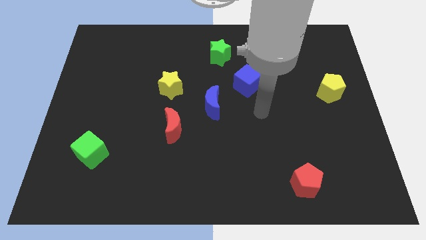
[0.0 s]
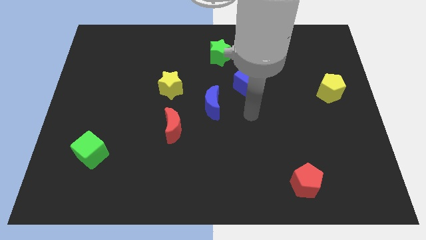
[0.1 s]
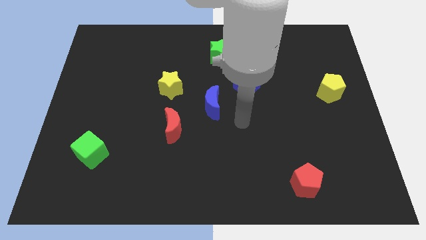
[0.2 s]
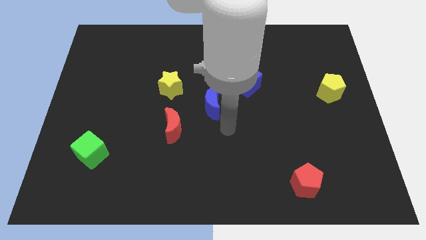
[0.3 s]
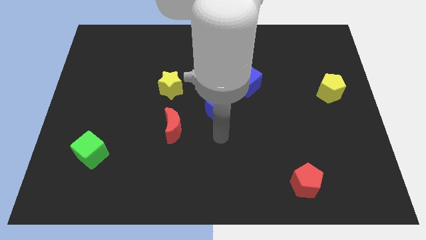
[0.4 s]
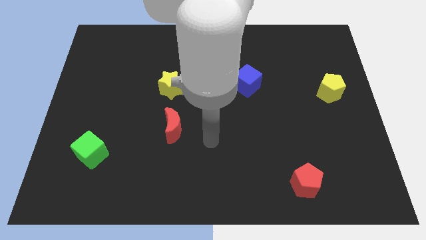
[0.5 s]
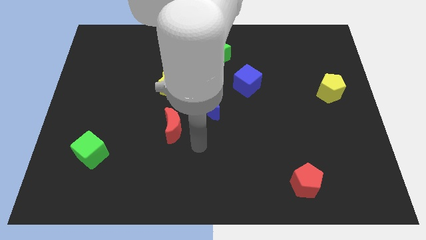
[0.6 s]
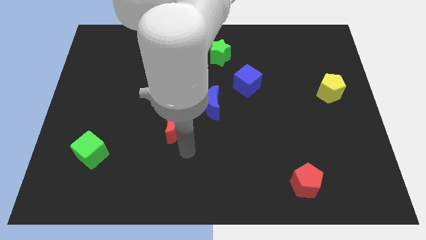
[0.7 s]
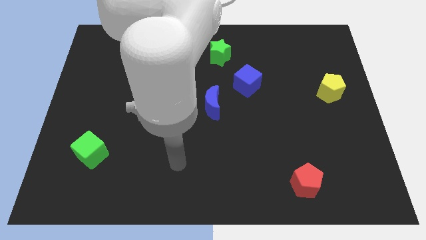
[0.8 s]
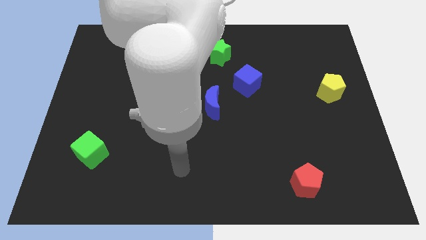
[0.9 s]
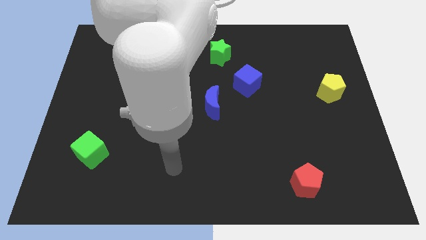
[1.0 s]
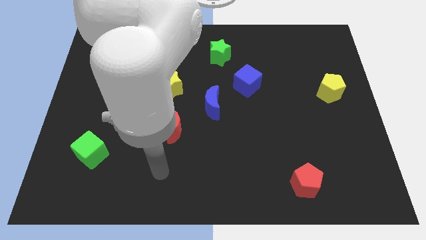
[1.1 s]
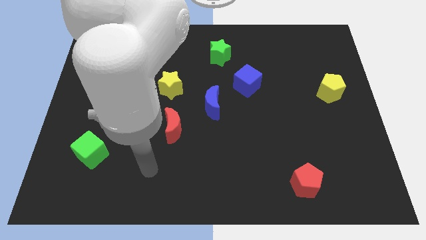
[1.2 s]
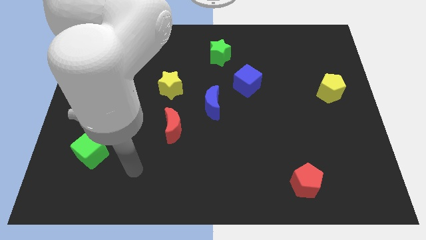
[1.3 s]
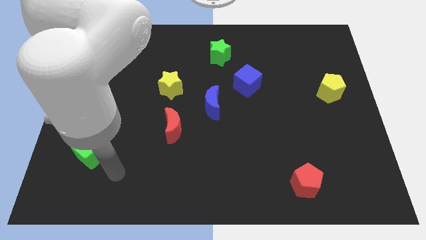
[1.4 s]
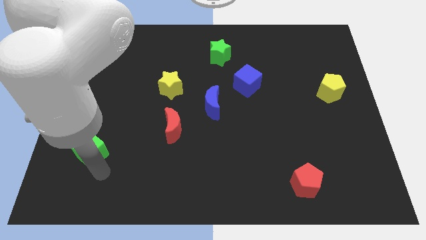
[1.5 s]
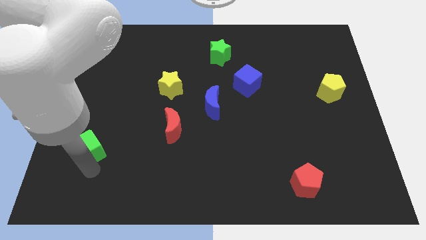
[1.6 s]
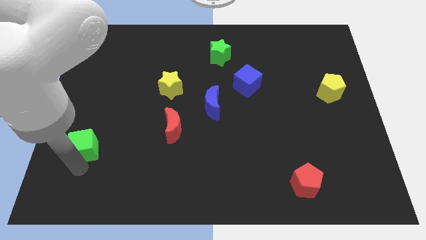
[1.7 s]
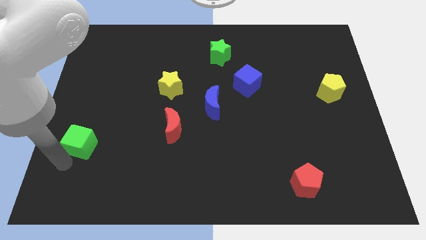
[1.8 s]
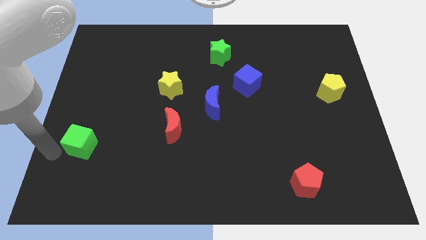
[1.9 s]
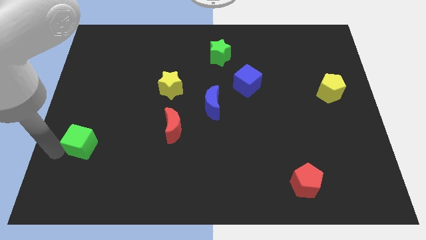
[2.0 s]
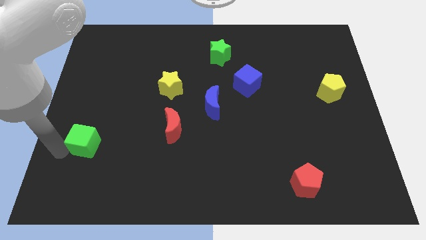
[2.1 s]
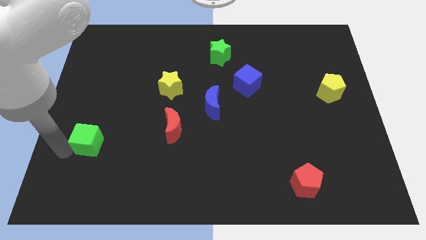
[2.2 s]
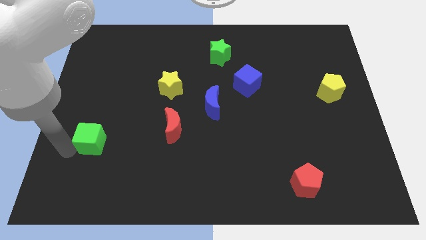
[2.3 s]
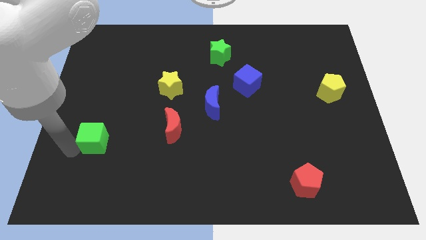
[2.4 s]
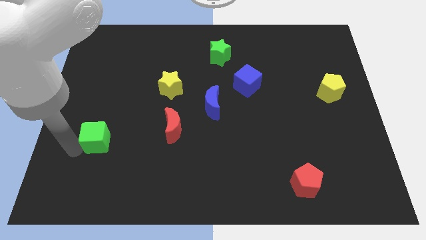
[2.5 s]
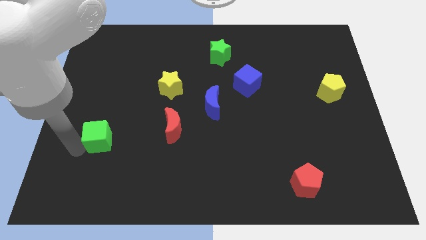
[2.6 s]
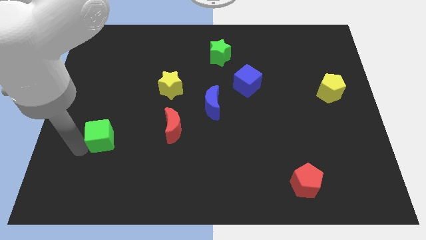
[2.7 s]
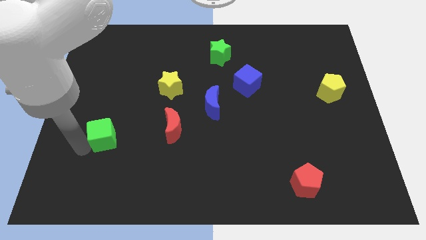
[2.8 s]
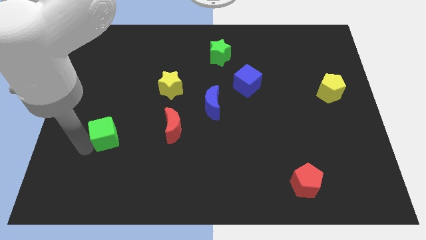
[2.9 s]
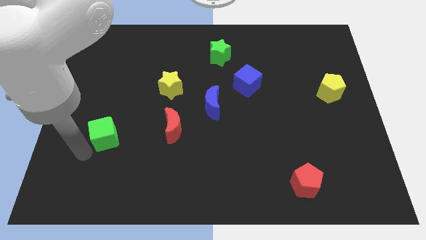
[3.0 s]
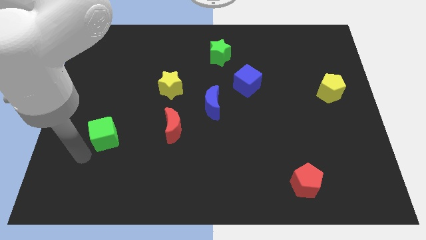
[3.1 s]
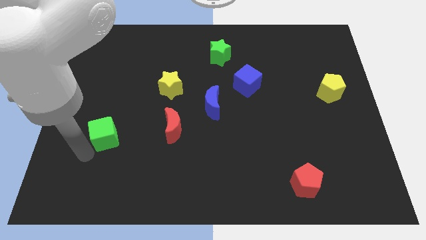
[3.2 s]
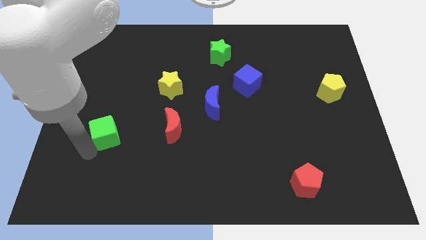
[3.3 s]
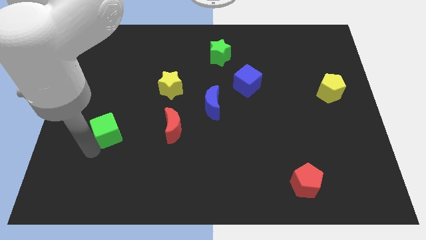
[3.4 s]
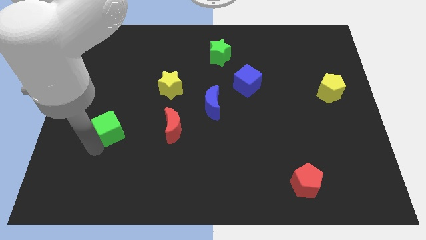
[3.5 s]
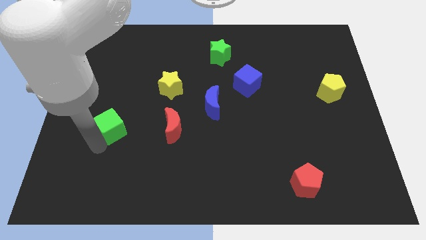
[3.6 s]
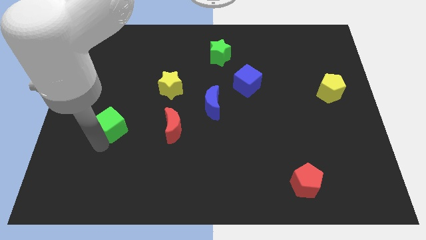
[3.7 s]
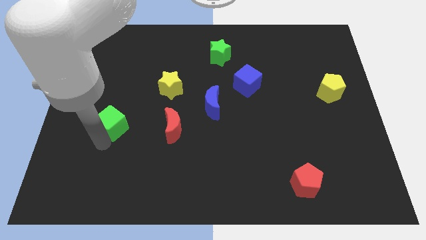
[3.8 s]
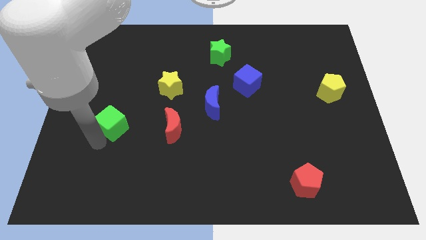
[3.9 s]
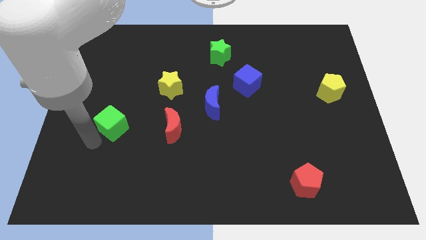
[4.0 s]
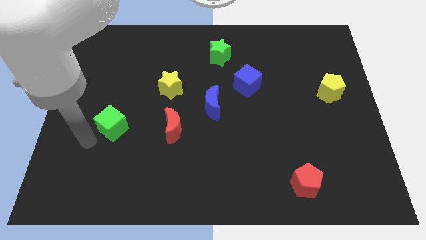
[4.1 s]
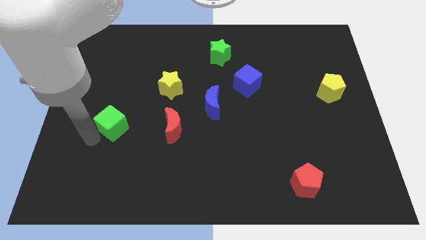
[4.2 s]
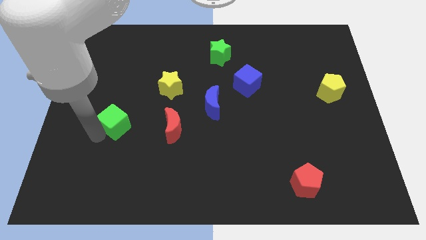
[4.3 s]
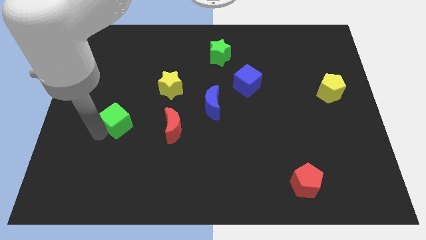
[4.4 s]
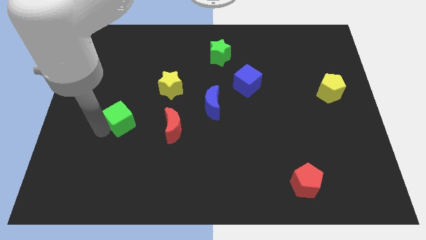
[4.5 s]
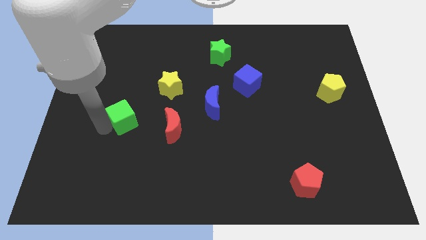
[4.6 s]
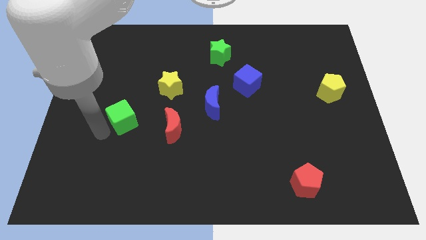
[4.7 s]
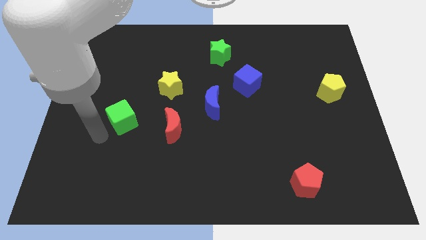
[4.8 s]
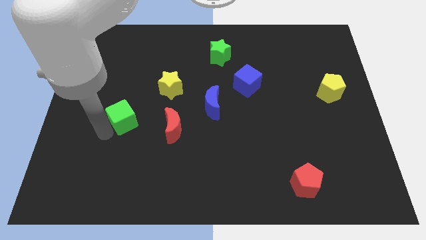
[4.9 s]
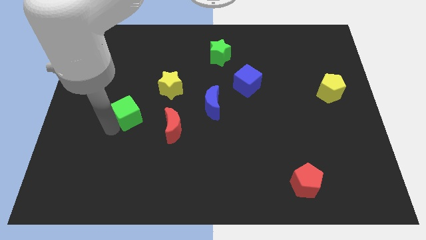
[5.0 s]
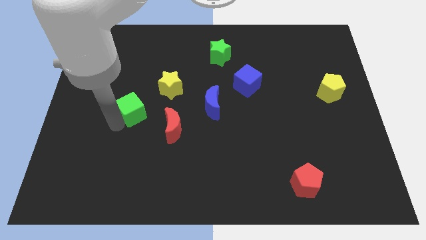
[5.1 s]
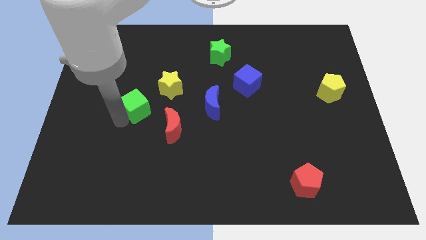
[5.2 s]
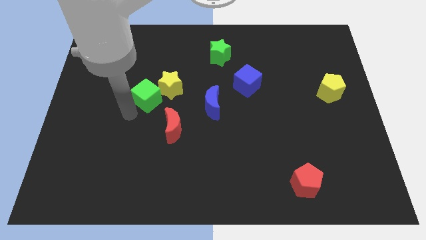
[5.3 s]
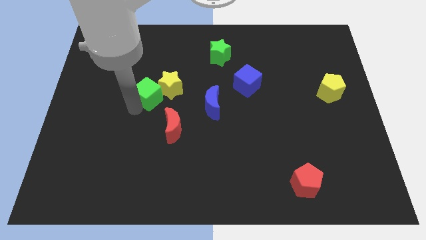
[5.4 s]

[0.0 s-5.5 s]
push the green cube towards the yellow star

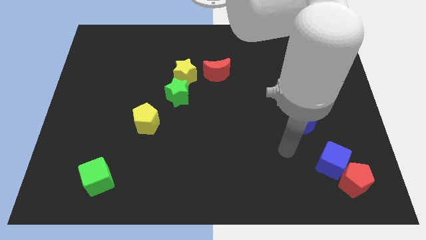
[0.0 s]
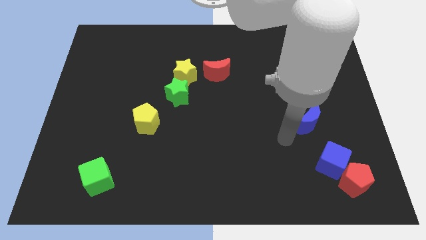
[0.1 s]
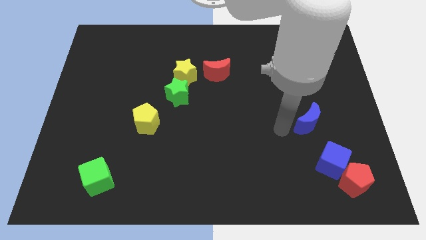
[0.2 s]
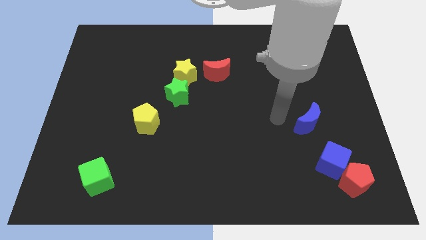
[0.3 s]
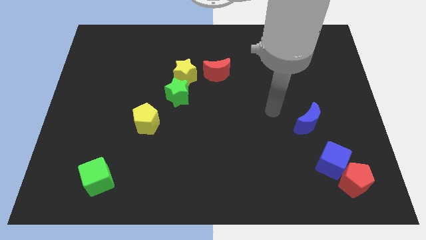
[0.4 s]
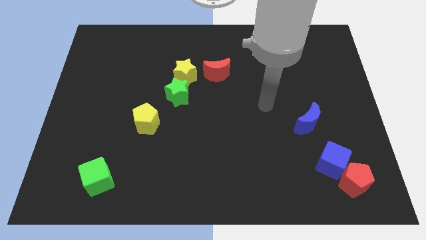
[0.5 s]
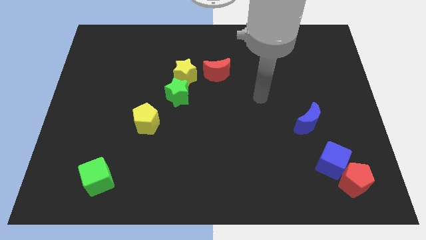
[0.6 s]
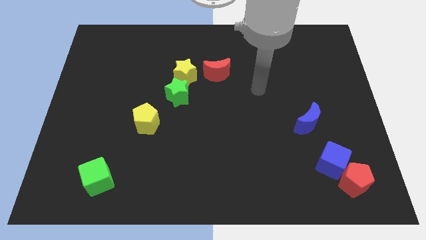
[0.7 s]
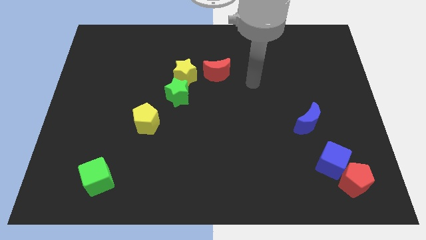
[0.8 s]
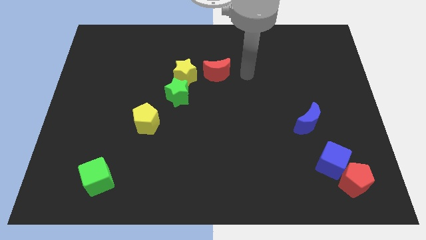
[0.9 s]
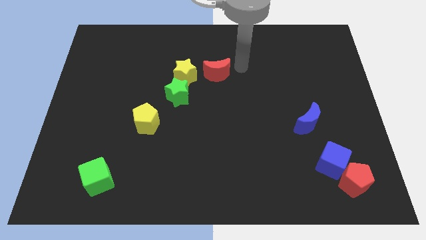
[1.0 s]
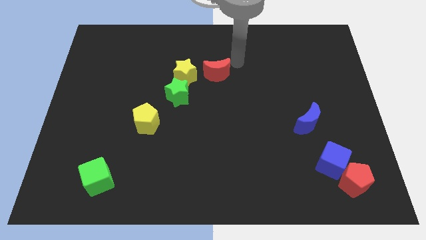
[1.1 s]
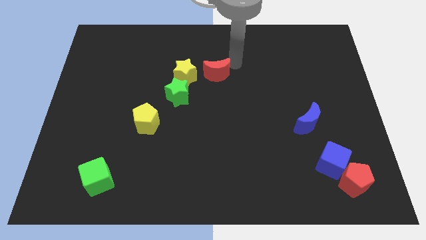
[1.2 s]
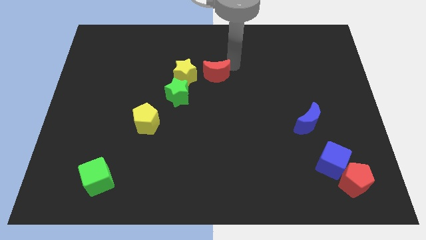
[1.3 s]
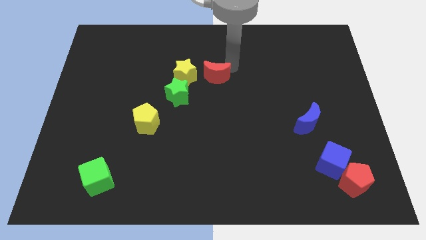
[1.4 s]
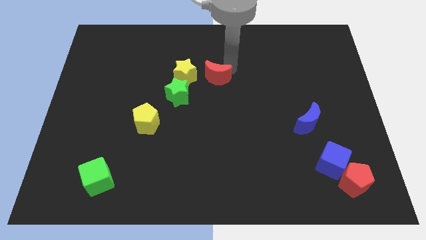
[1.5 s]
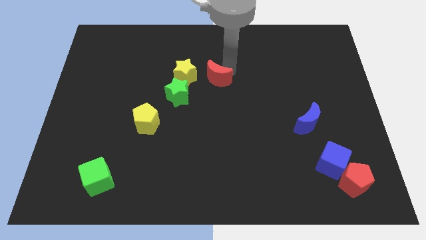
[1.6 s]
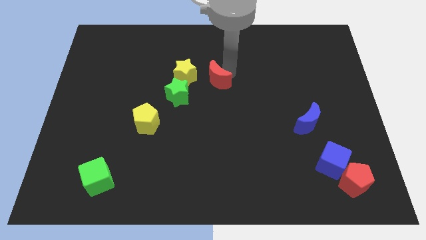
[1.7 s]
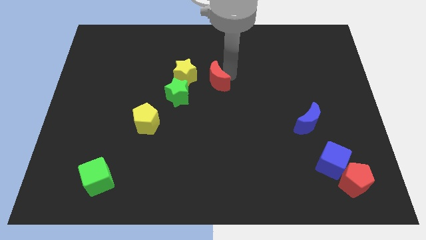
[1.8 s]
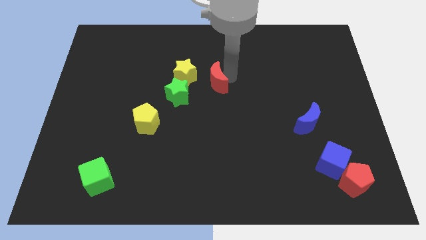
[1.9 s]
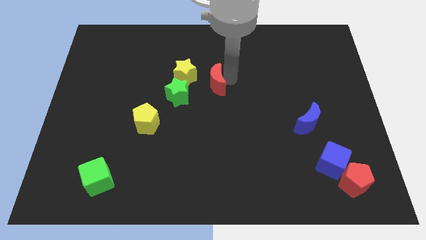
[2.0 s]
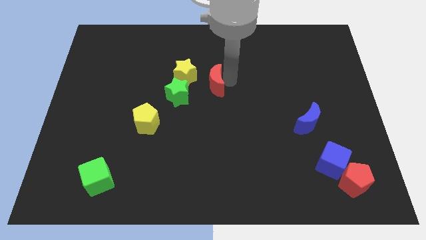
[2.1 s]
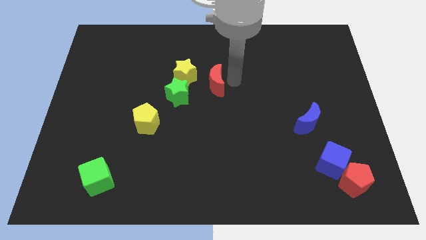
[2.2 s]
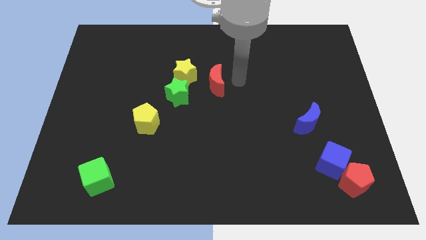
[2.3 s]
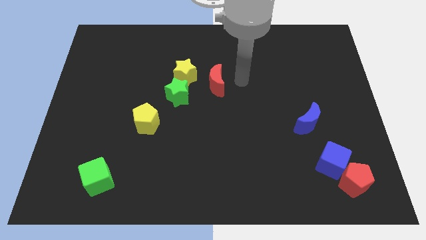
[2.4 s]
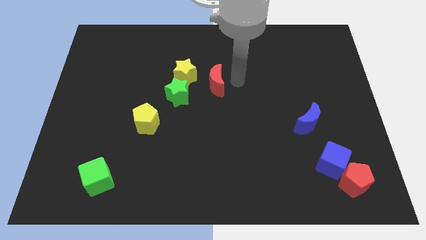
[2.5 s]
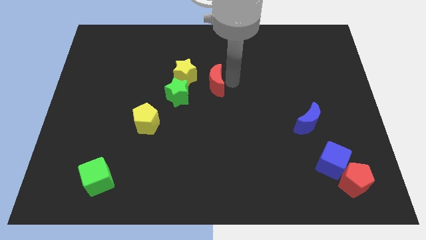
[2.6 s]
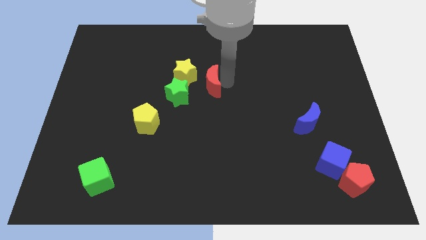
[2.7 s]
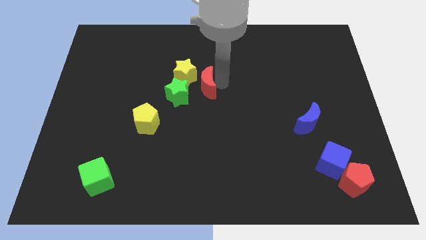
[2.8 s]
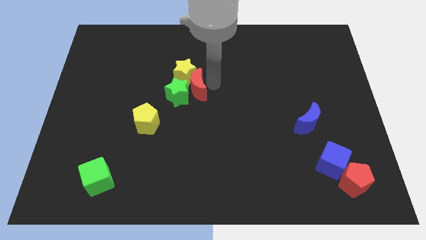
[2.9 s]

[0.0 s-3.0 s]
slide the red moon close to the green star
